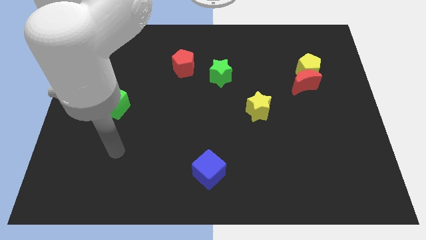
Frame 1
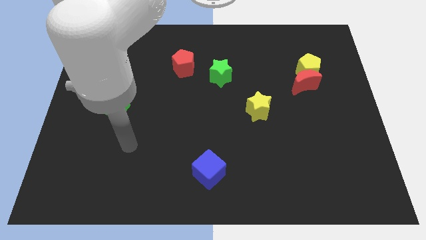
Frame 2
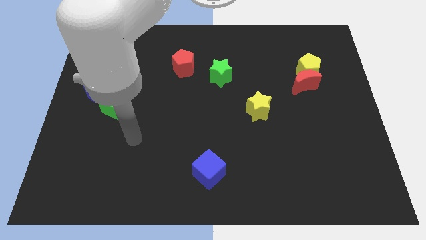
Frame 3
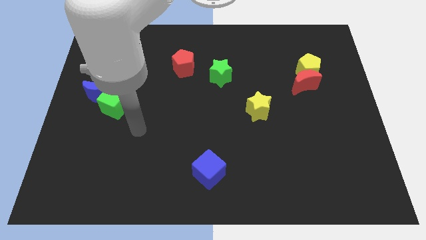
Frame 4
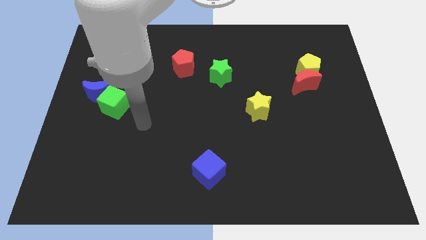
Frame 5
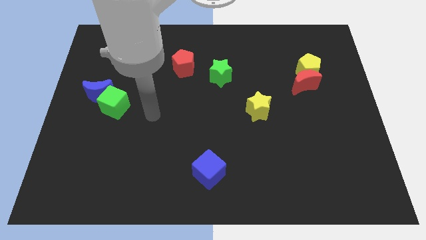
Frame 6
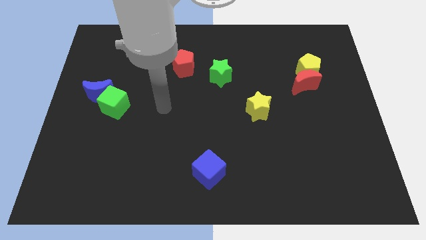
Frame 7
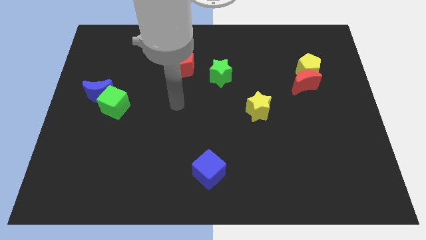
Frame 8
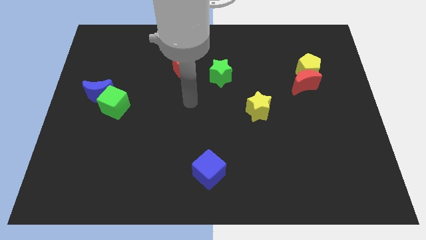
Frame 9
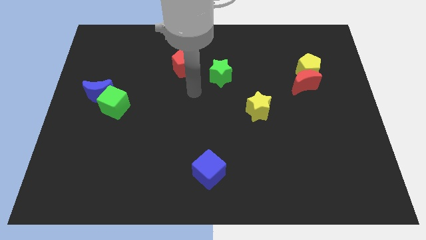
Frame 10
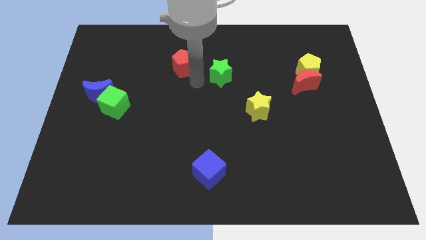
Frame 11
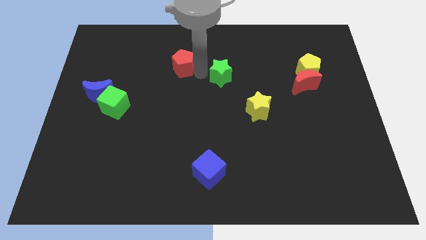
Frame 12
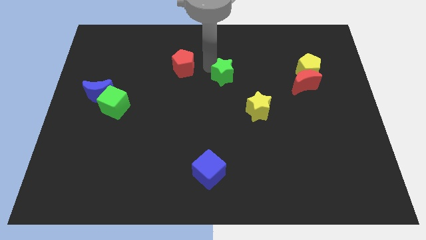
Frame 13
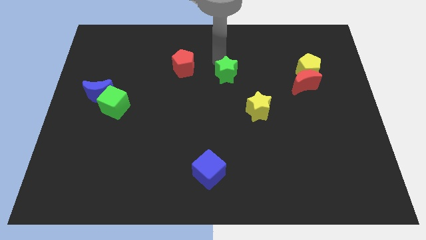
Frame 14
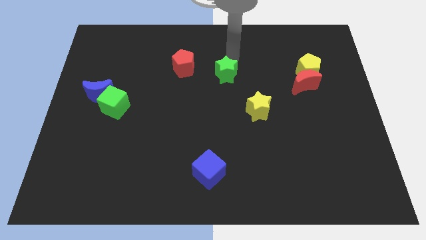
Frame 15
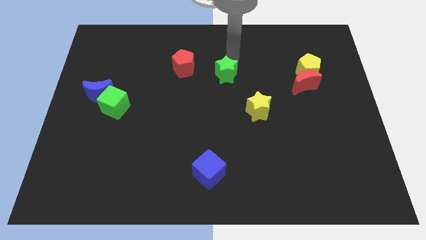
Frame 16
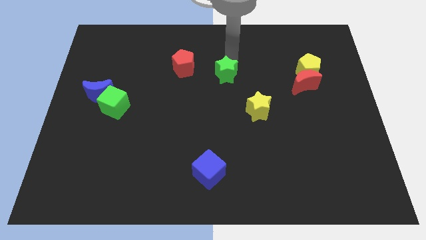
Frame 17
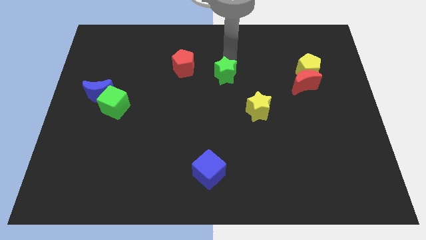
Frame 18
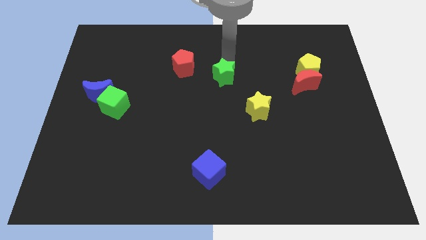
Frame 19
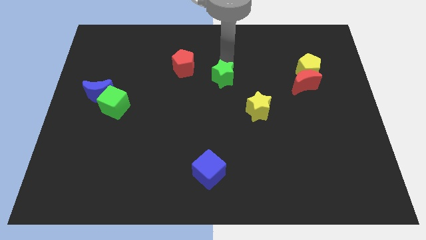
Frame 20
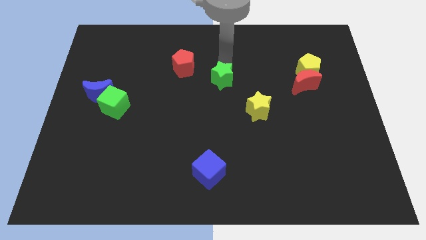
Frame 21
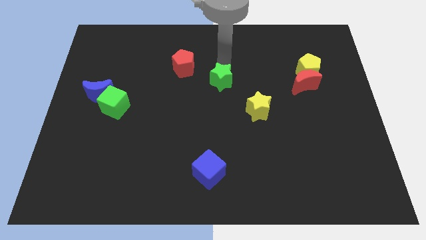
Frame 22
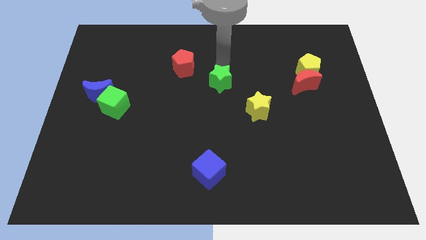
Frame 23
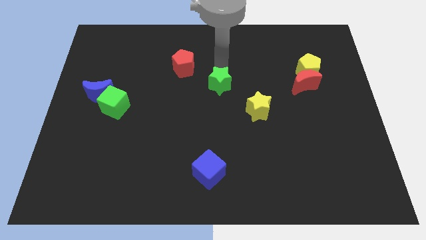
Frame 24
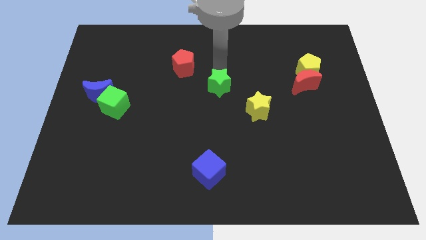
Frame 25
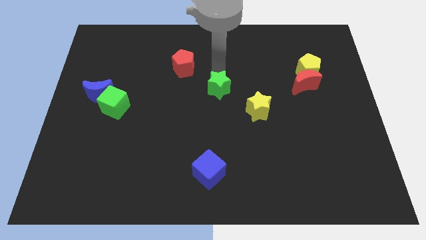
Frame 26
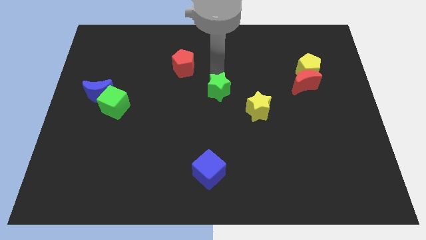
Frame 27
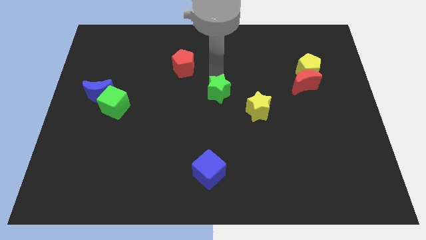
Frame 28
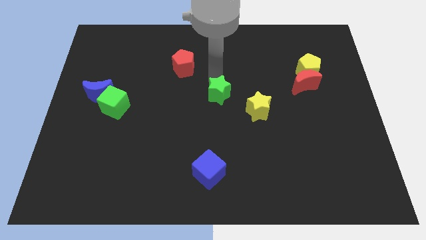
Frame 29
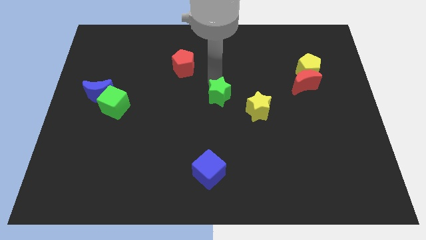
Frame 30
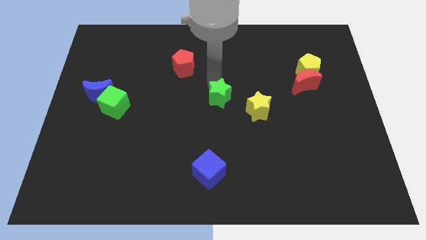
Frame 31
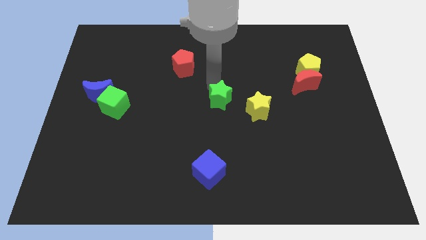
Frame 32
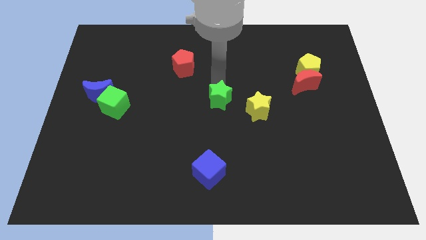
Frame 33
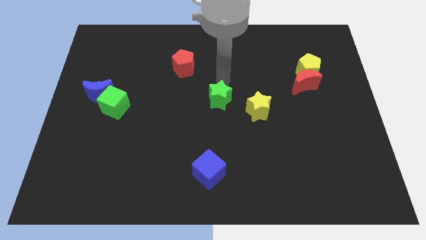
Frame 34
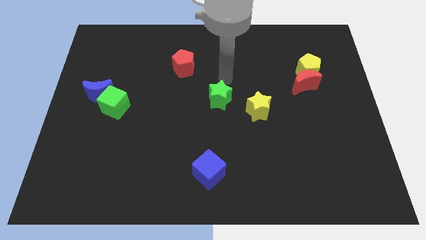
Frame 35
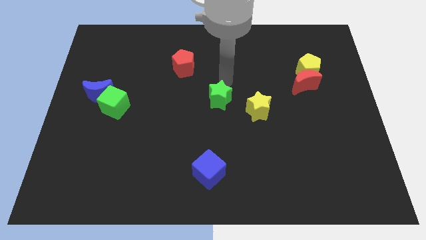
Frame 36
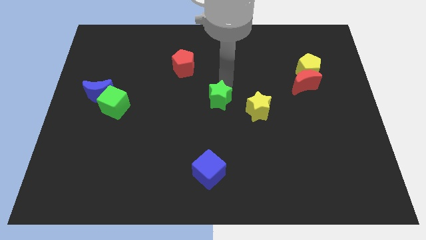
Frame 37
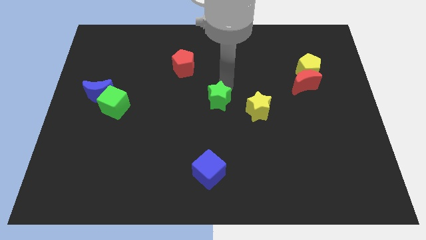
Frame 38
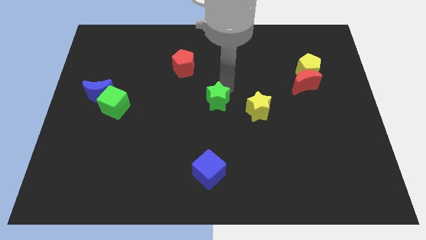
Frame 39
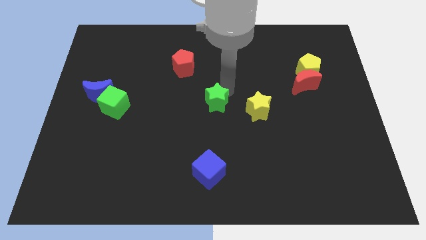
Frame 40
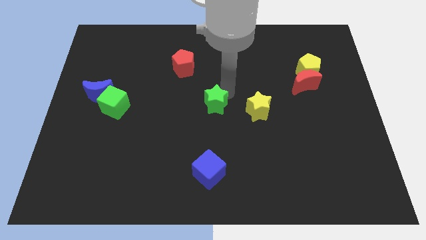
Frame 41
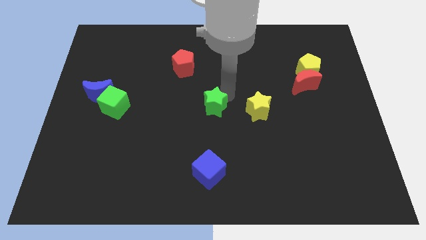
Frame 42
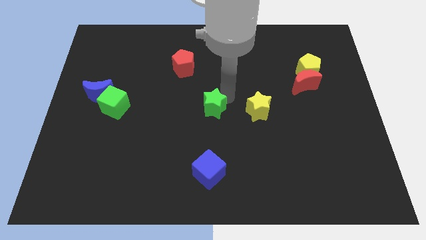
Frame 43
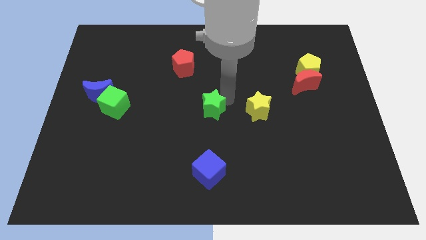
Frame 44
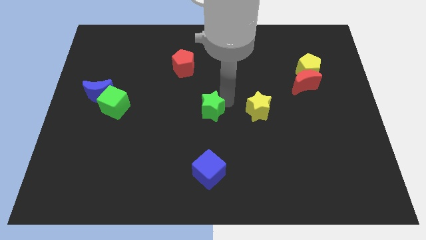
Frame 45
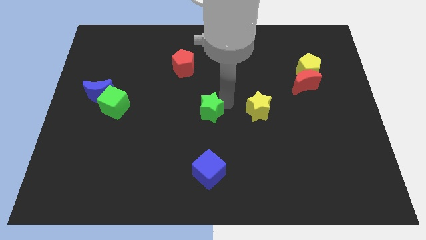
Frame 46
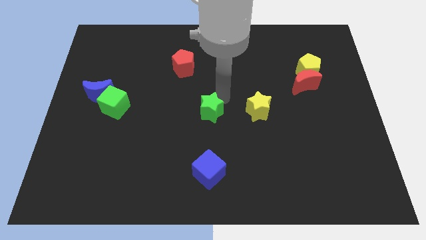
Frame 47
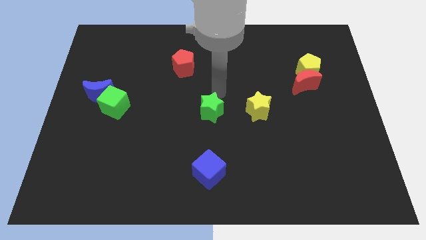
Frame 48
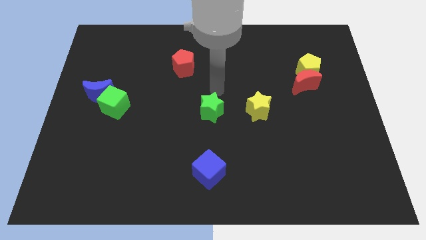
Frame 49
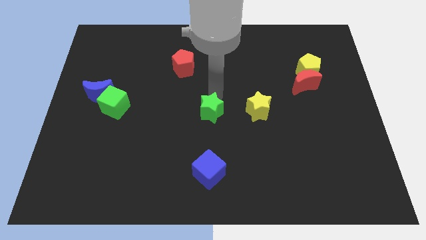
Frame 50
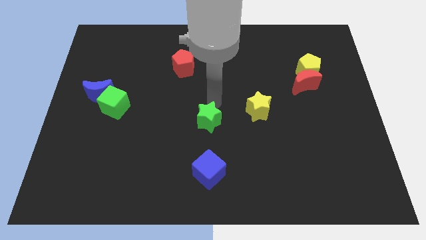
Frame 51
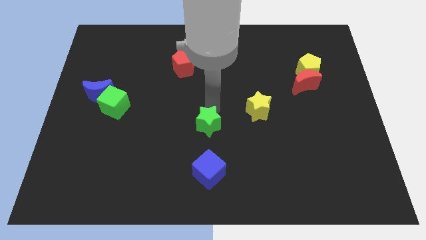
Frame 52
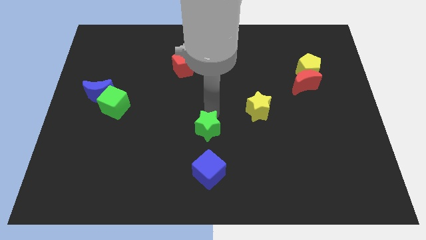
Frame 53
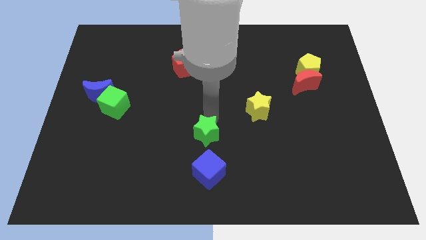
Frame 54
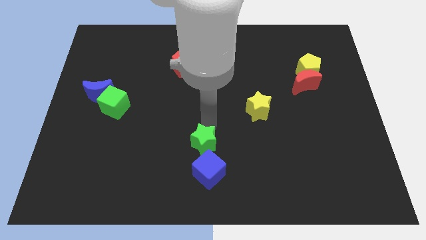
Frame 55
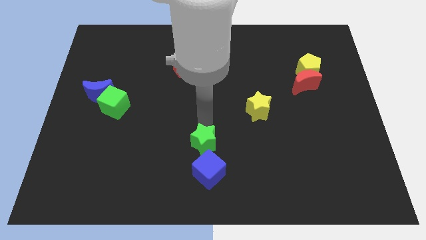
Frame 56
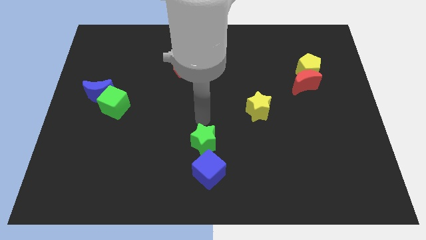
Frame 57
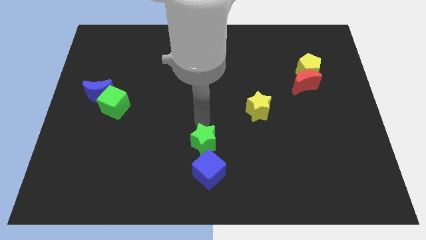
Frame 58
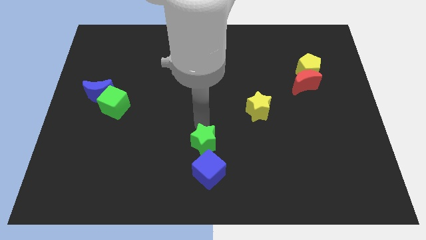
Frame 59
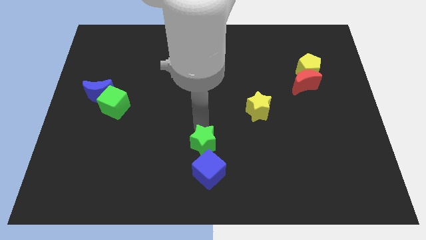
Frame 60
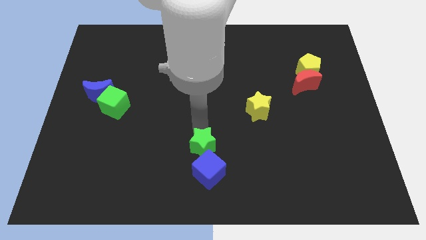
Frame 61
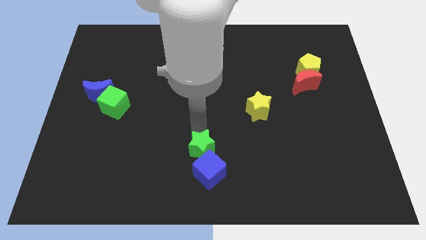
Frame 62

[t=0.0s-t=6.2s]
put the green star to the blue cube

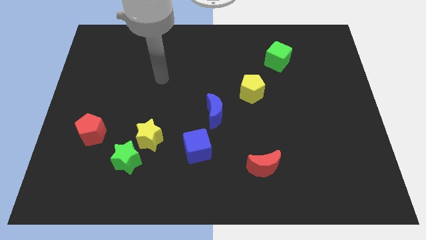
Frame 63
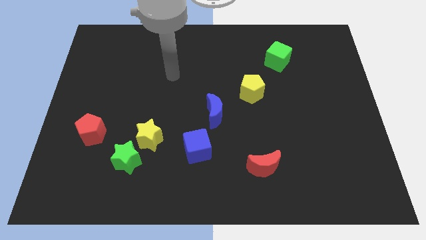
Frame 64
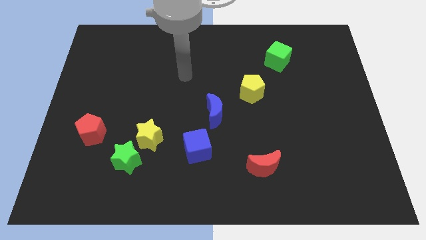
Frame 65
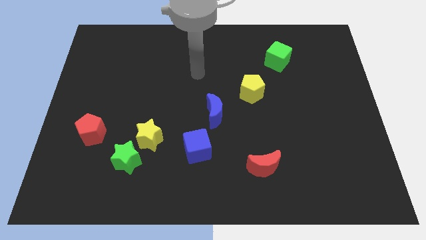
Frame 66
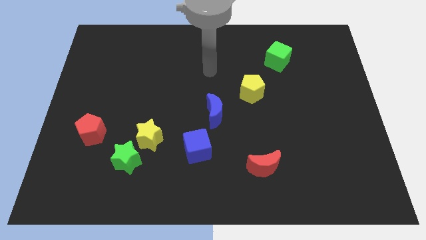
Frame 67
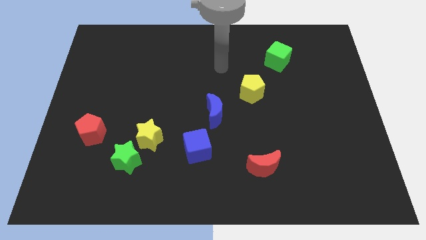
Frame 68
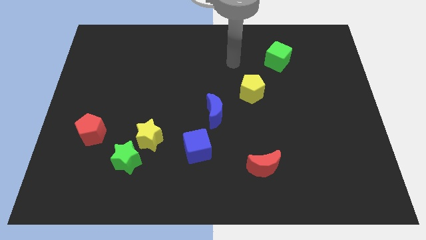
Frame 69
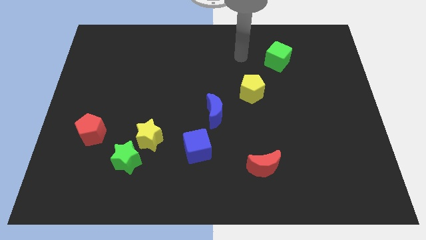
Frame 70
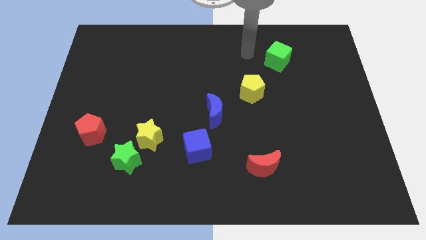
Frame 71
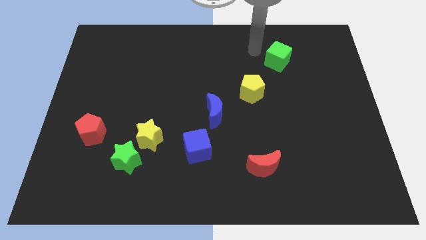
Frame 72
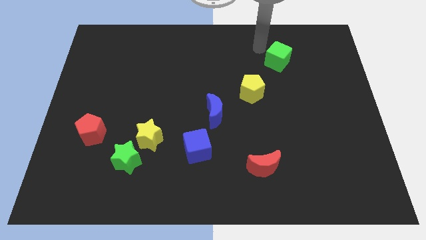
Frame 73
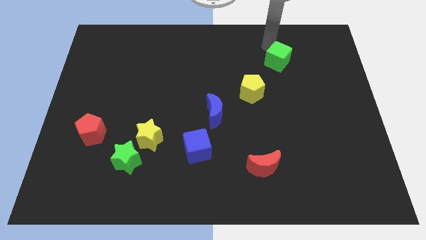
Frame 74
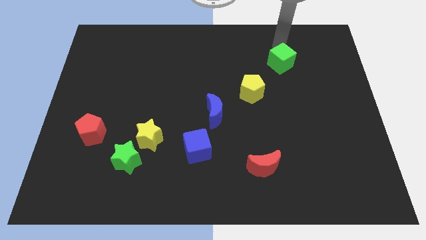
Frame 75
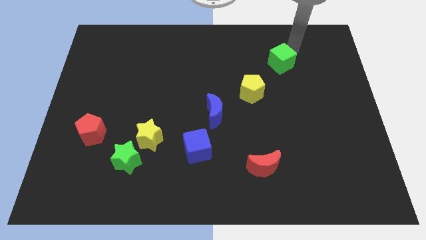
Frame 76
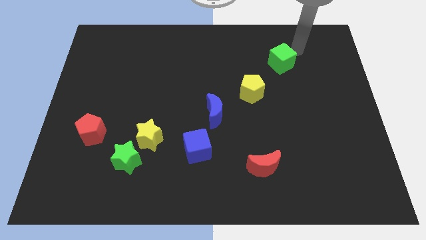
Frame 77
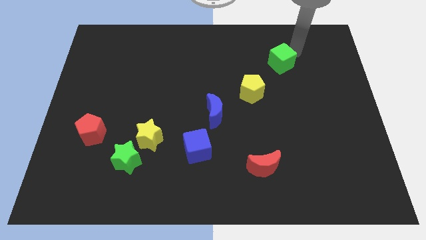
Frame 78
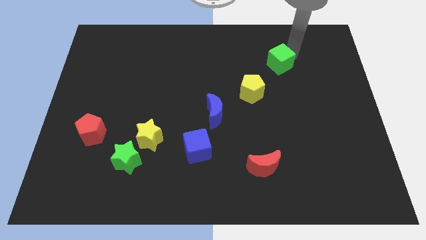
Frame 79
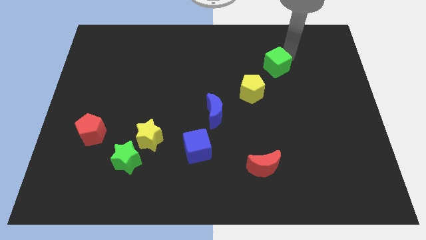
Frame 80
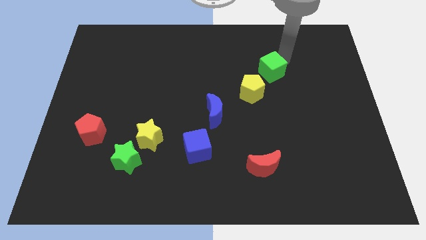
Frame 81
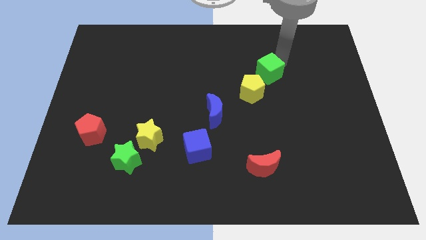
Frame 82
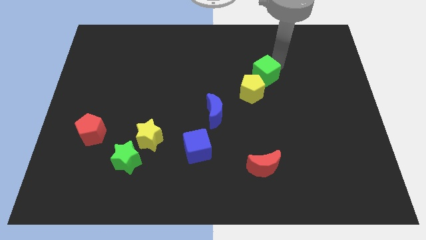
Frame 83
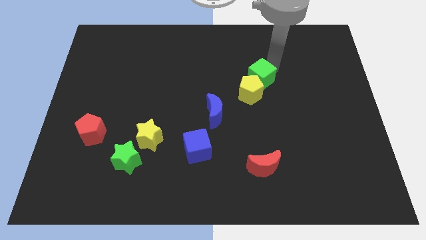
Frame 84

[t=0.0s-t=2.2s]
slide the green cube to the yellow pentagon
